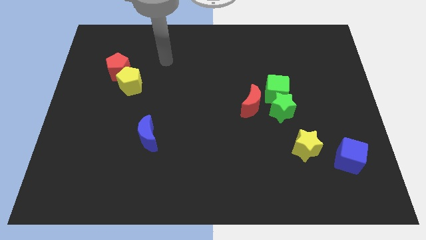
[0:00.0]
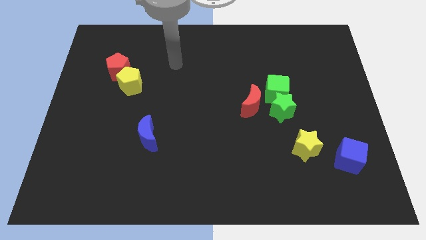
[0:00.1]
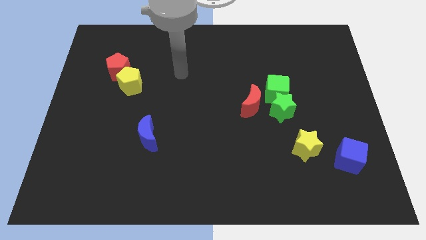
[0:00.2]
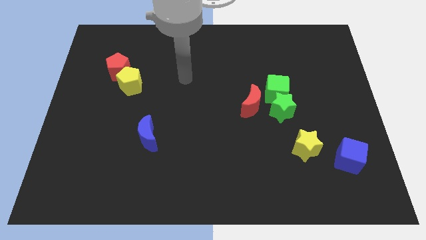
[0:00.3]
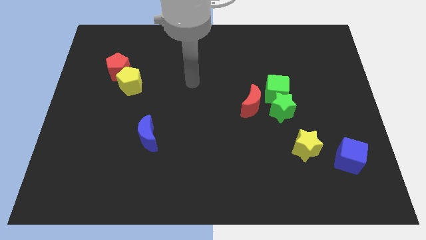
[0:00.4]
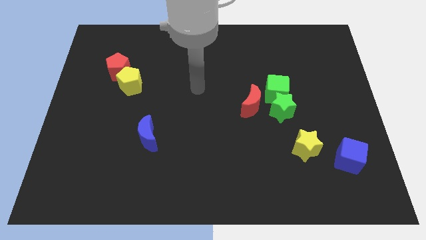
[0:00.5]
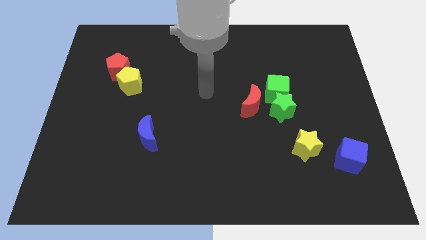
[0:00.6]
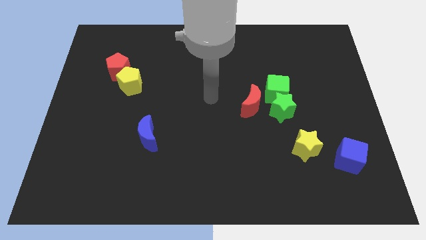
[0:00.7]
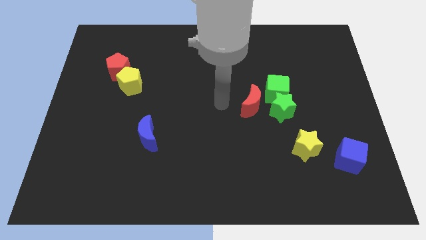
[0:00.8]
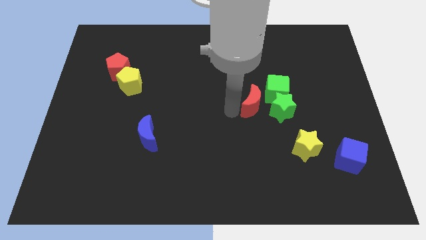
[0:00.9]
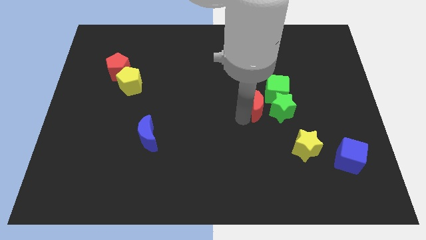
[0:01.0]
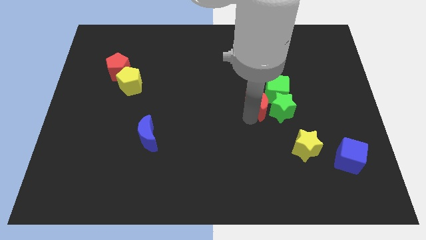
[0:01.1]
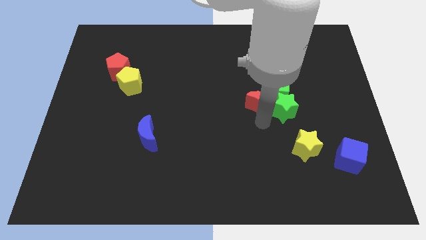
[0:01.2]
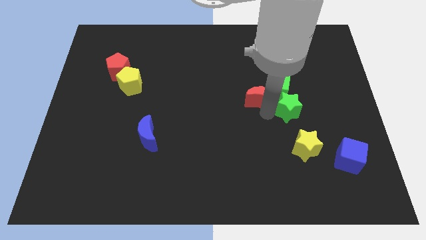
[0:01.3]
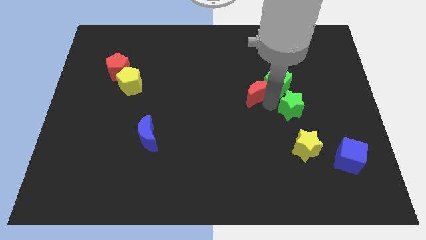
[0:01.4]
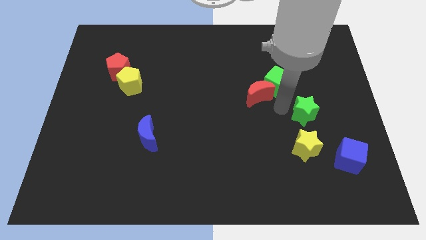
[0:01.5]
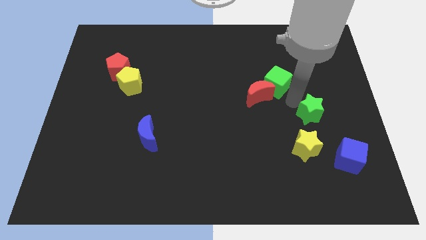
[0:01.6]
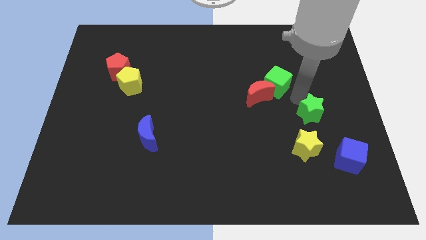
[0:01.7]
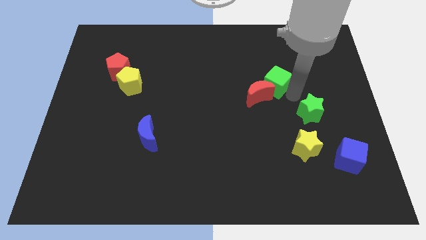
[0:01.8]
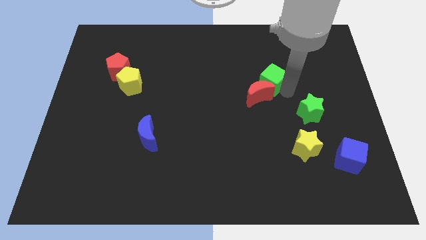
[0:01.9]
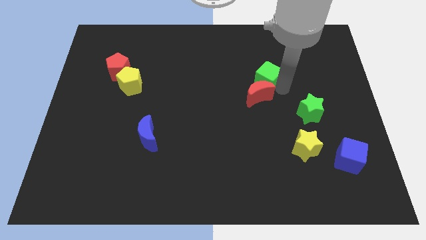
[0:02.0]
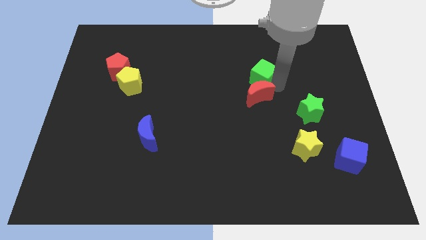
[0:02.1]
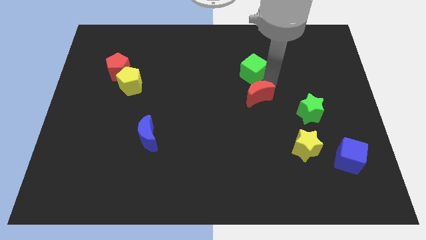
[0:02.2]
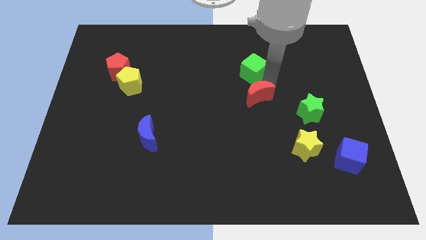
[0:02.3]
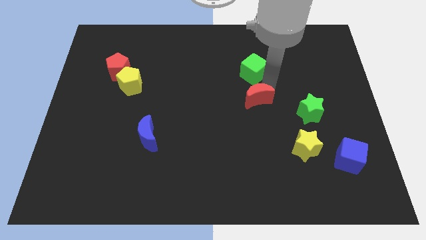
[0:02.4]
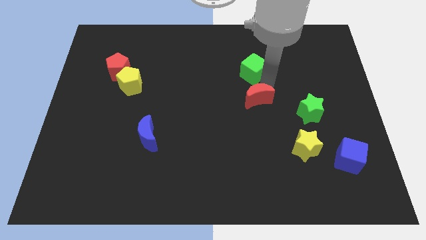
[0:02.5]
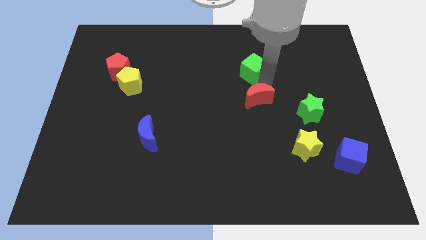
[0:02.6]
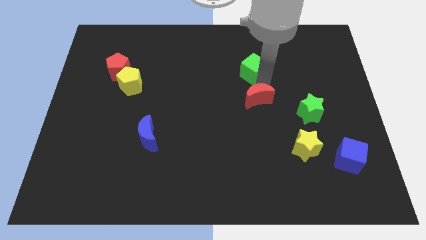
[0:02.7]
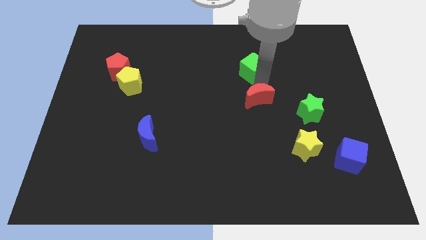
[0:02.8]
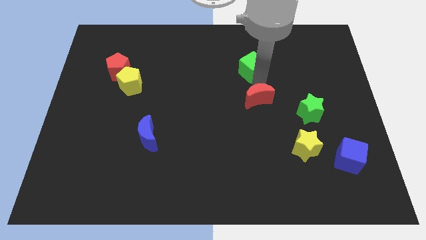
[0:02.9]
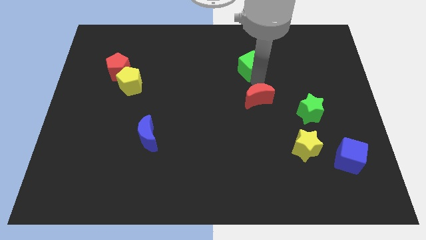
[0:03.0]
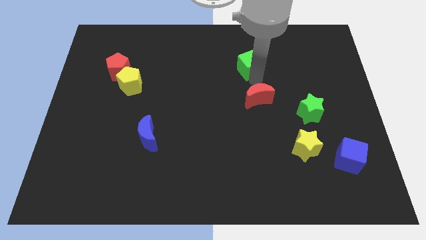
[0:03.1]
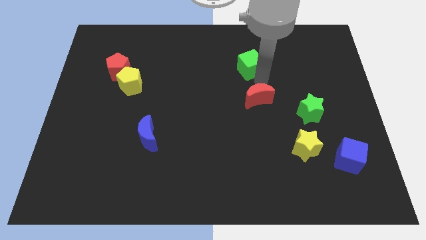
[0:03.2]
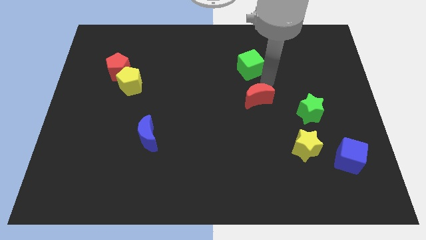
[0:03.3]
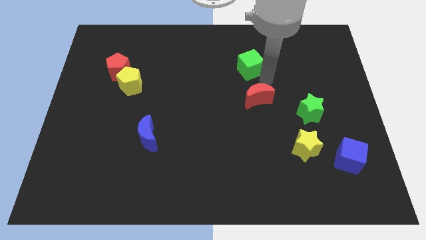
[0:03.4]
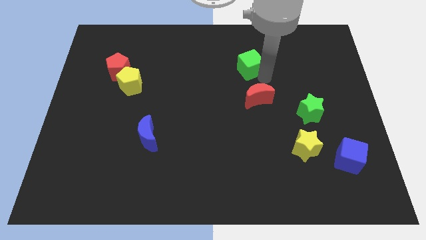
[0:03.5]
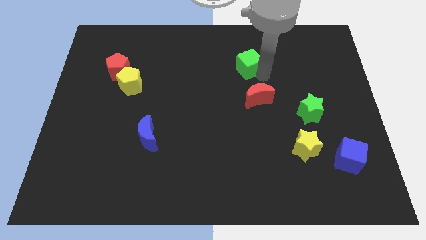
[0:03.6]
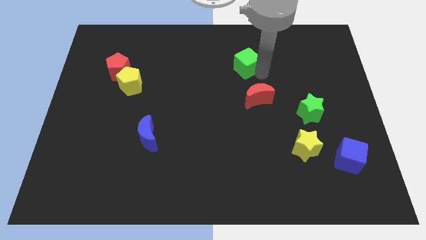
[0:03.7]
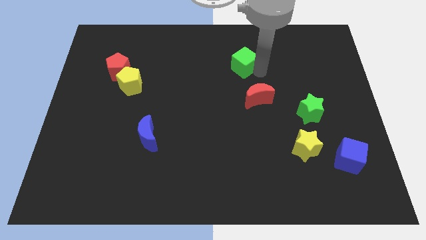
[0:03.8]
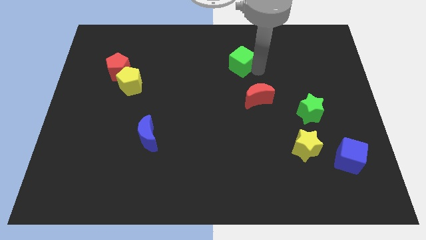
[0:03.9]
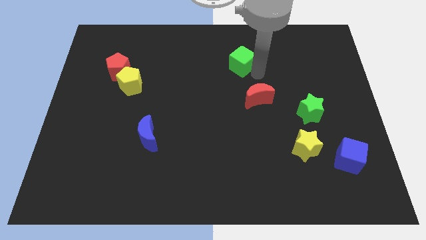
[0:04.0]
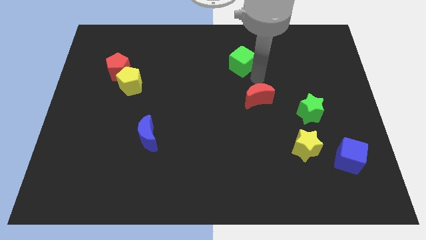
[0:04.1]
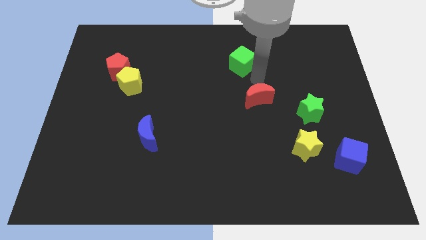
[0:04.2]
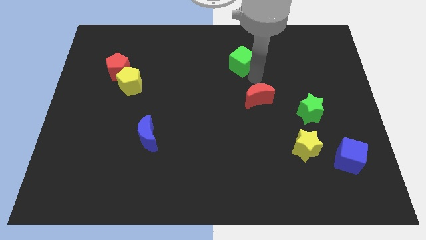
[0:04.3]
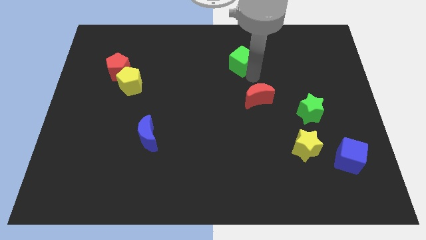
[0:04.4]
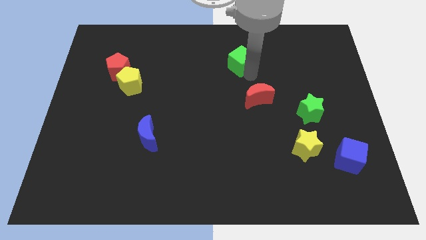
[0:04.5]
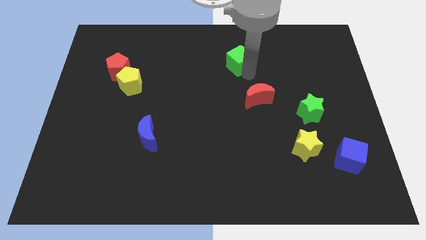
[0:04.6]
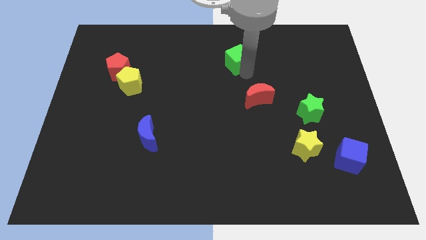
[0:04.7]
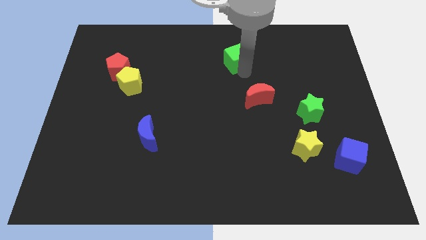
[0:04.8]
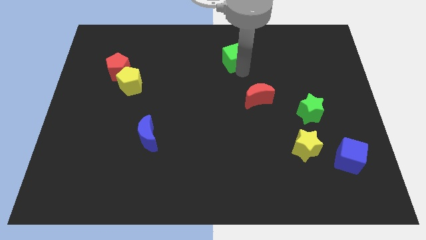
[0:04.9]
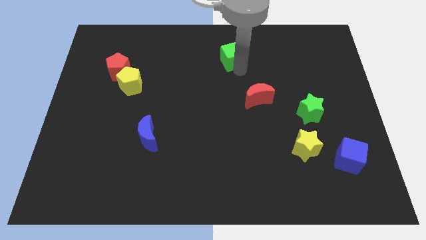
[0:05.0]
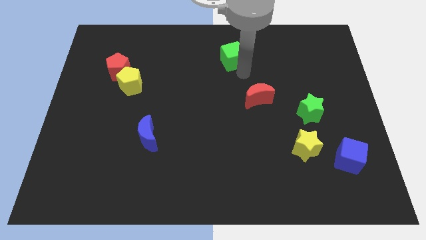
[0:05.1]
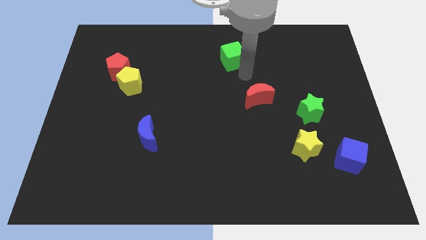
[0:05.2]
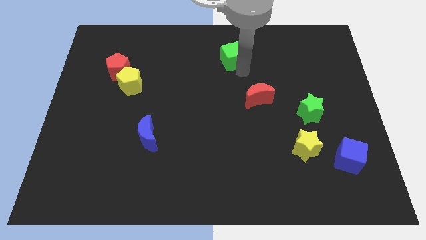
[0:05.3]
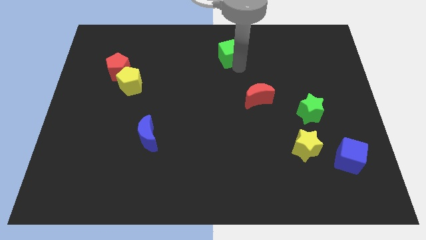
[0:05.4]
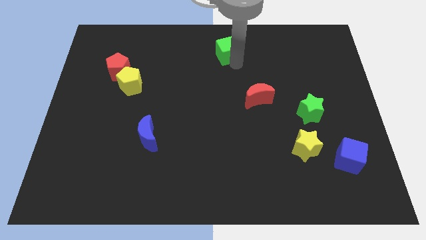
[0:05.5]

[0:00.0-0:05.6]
put the green cube to the towards your base

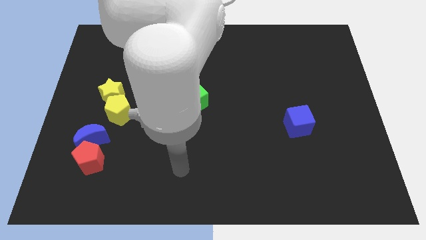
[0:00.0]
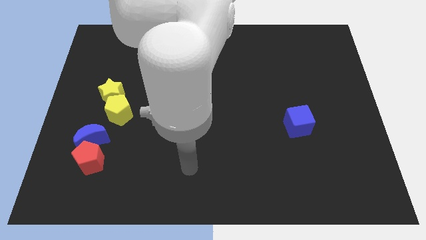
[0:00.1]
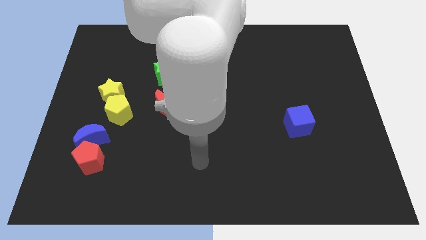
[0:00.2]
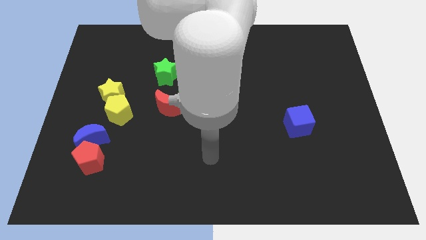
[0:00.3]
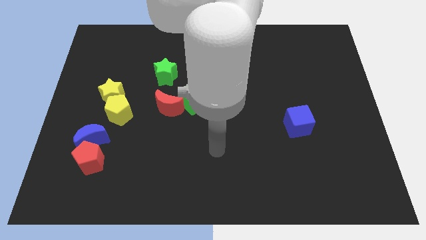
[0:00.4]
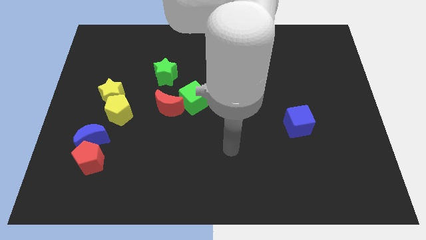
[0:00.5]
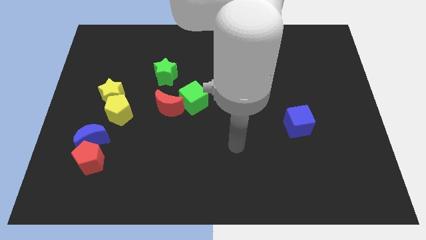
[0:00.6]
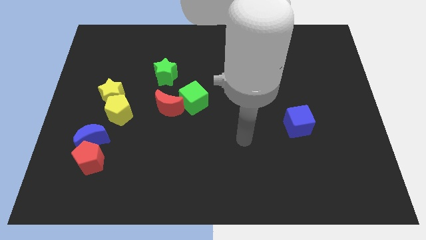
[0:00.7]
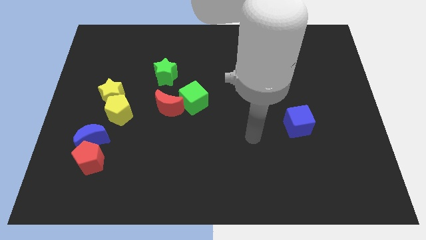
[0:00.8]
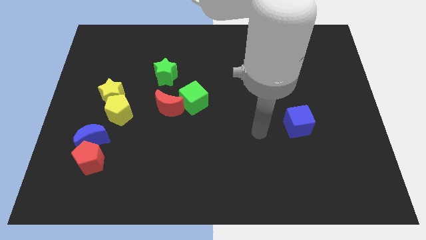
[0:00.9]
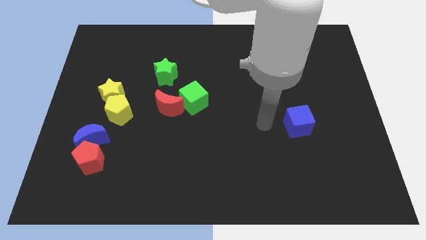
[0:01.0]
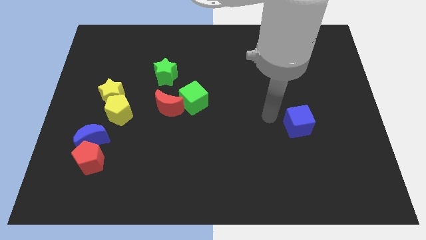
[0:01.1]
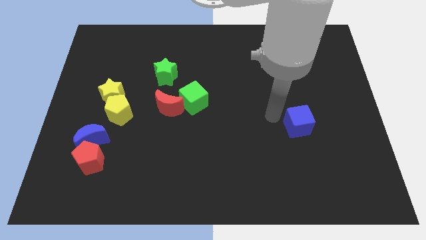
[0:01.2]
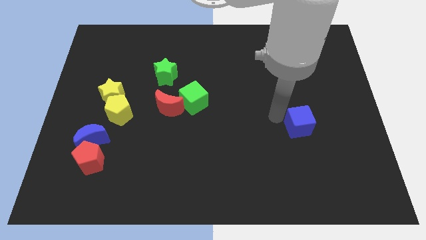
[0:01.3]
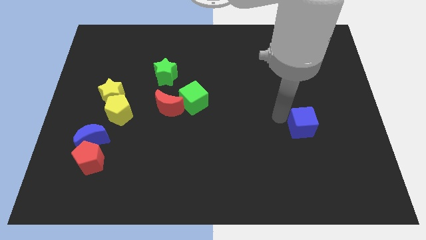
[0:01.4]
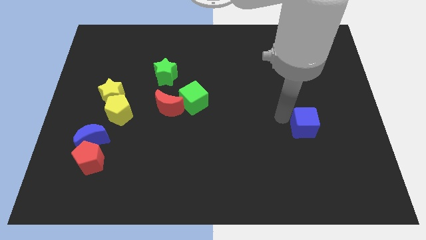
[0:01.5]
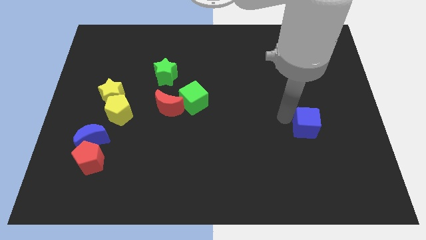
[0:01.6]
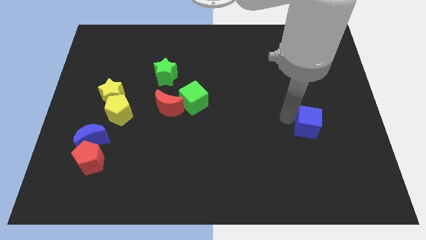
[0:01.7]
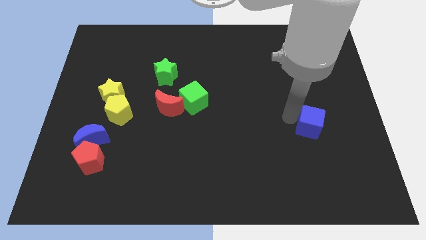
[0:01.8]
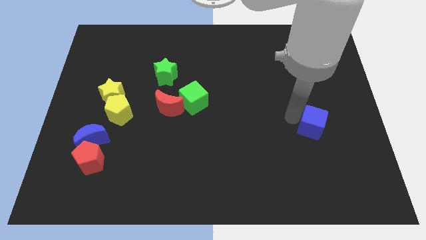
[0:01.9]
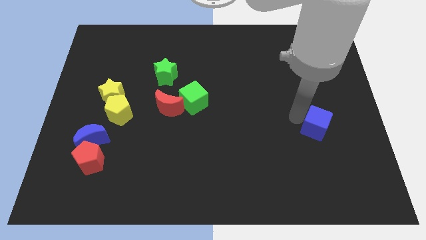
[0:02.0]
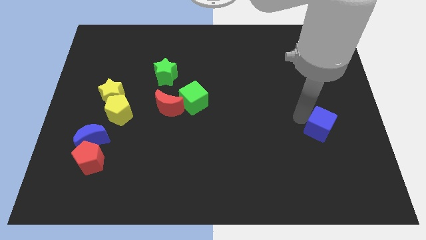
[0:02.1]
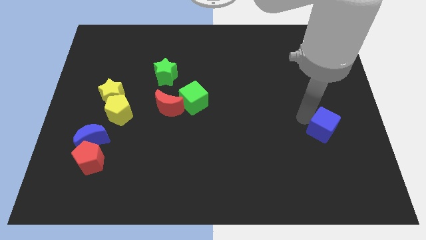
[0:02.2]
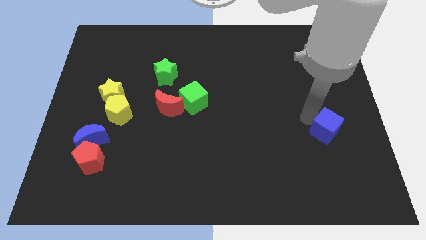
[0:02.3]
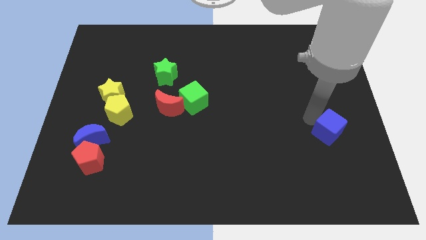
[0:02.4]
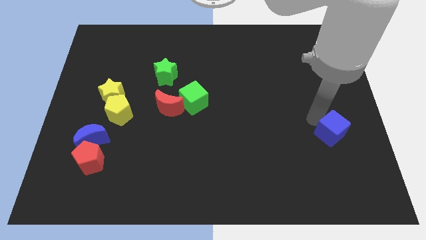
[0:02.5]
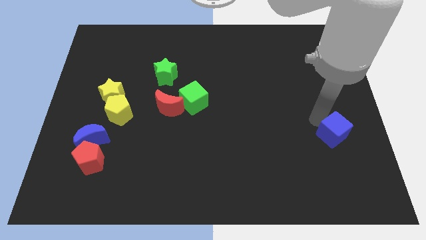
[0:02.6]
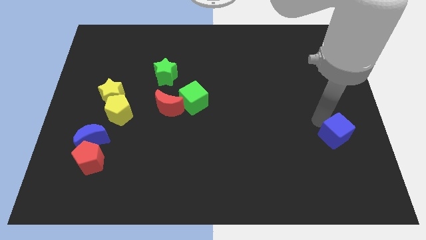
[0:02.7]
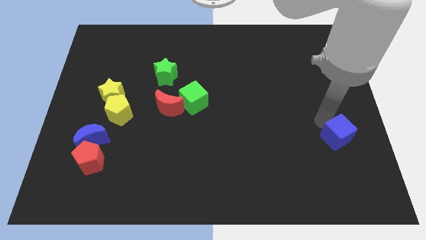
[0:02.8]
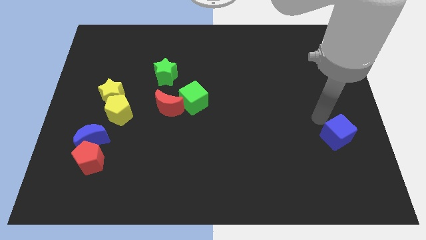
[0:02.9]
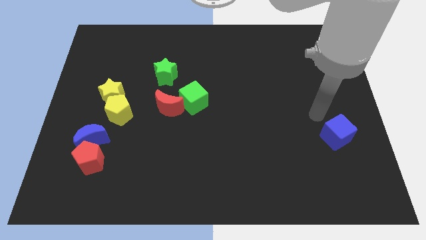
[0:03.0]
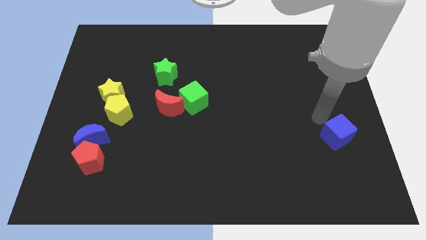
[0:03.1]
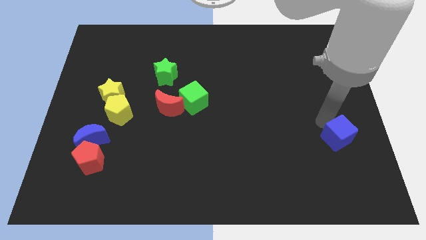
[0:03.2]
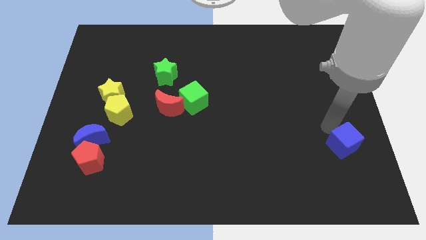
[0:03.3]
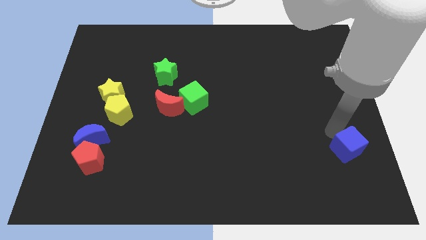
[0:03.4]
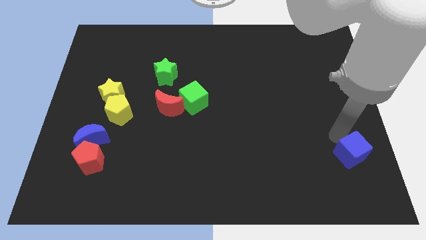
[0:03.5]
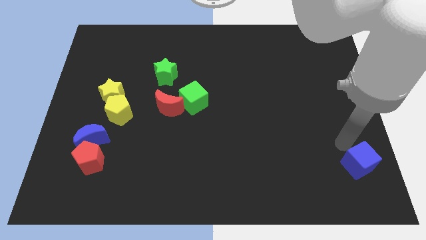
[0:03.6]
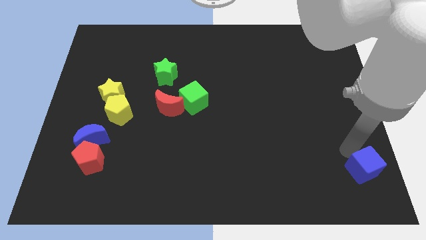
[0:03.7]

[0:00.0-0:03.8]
slide the blue cube to the lower right corner
